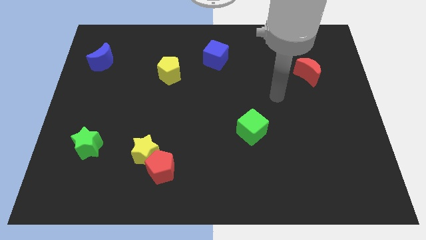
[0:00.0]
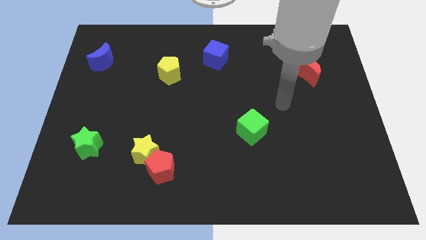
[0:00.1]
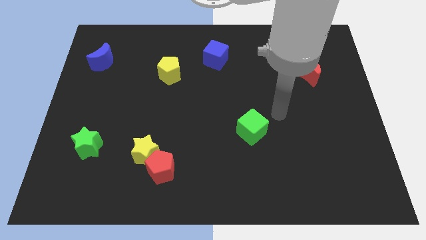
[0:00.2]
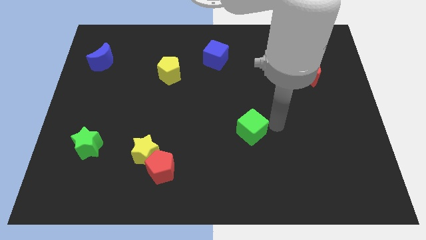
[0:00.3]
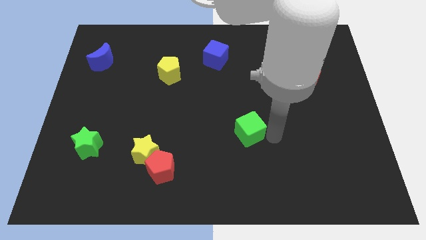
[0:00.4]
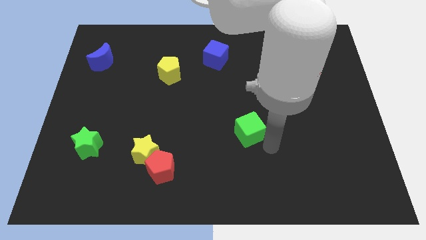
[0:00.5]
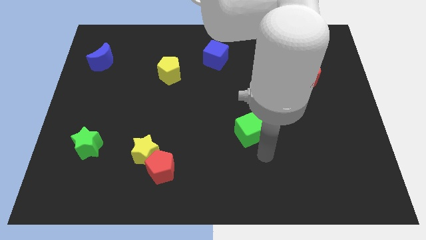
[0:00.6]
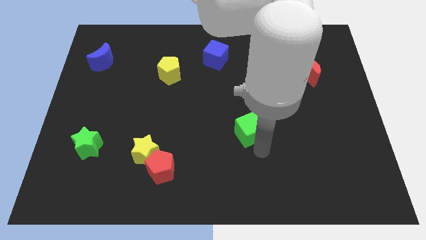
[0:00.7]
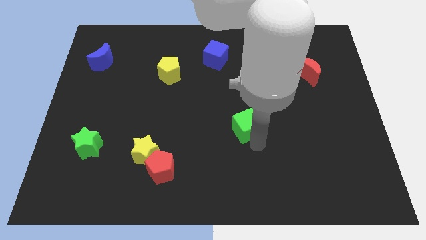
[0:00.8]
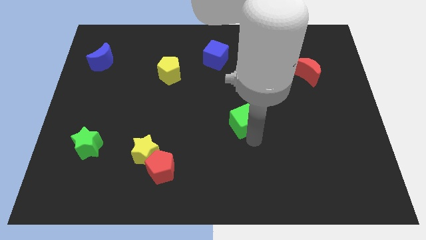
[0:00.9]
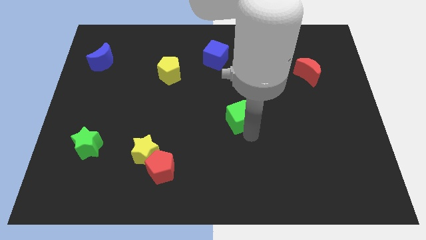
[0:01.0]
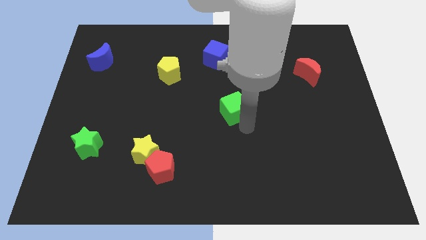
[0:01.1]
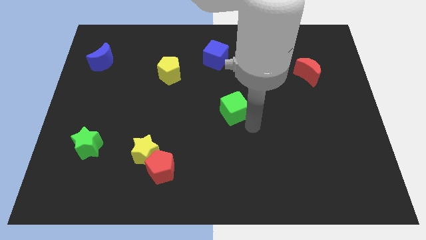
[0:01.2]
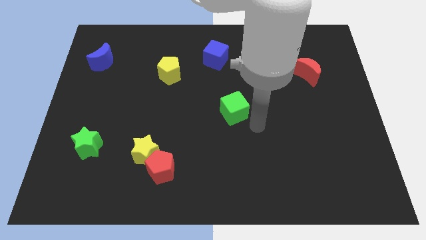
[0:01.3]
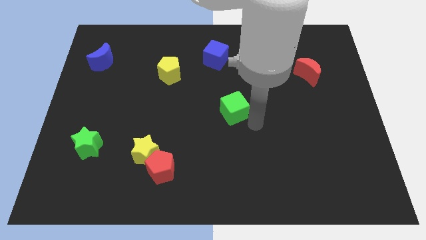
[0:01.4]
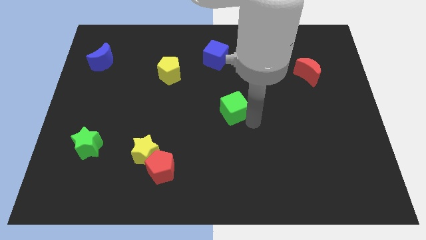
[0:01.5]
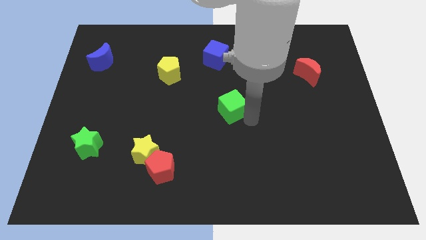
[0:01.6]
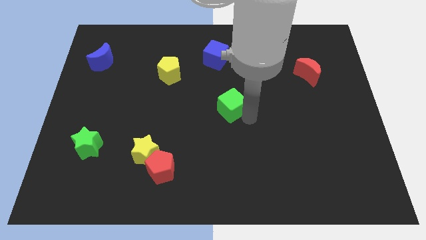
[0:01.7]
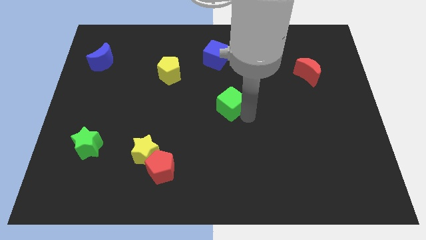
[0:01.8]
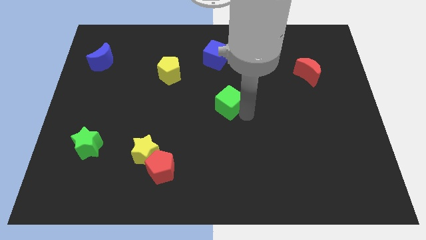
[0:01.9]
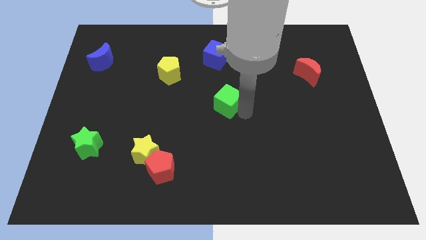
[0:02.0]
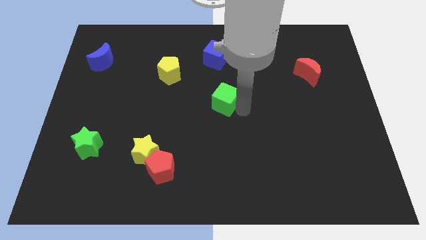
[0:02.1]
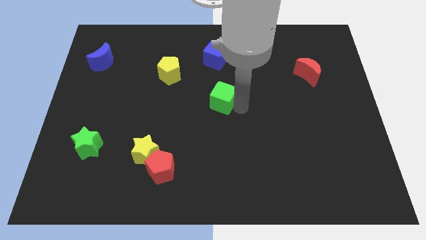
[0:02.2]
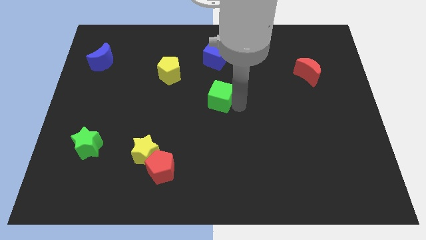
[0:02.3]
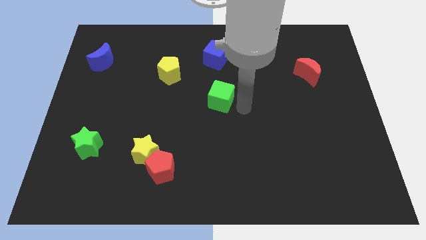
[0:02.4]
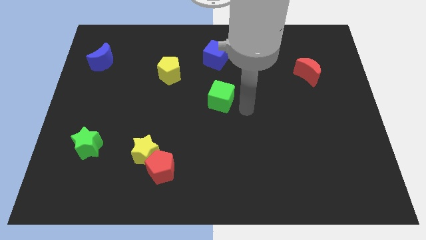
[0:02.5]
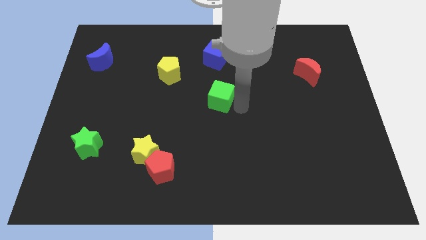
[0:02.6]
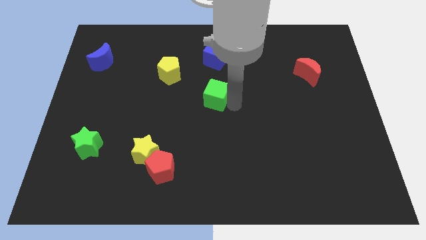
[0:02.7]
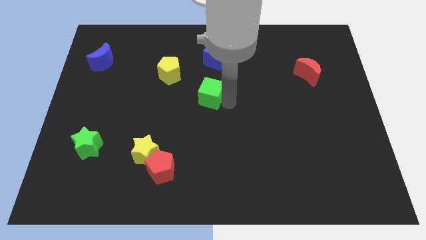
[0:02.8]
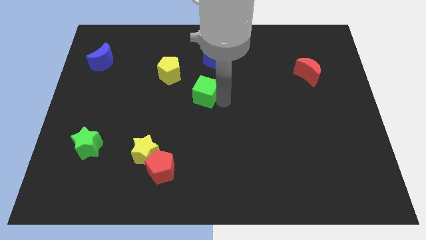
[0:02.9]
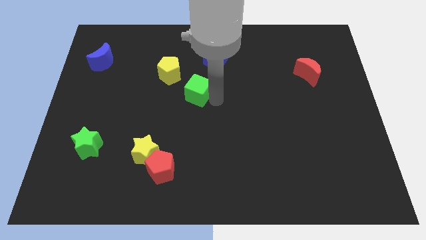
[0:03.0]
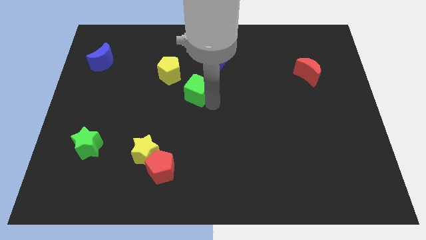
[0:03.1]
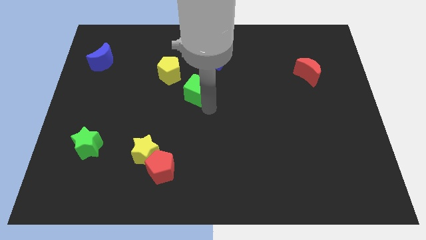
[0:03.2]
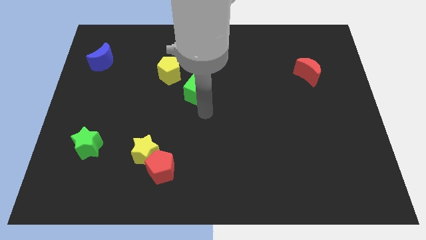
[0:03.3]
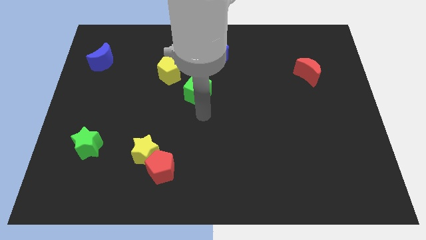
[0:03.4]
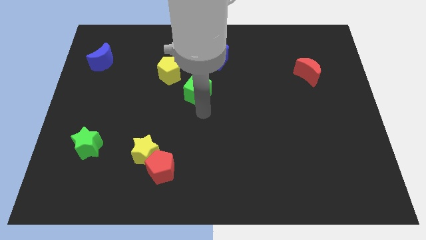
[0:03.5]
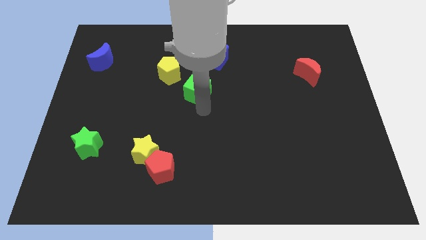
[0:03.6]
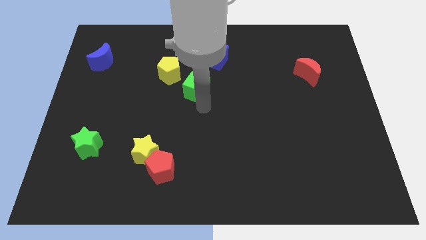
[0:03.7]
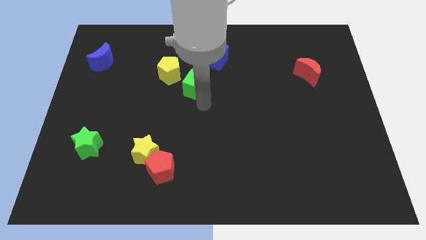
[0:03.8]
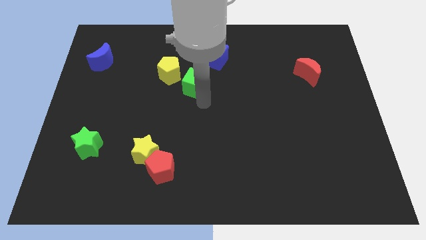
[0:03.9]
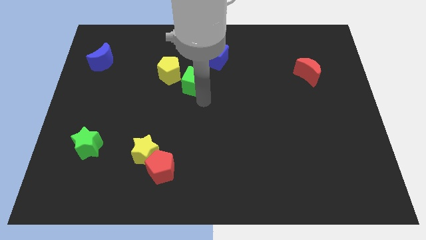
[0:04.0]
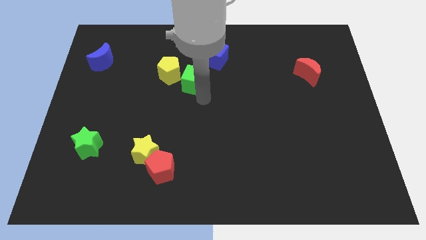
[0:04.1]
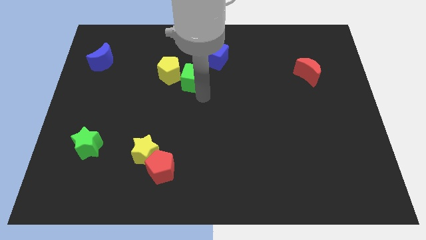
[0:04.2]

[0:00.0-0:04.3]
push the green cube up and to the left diagonally

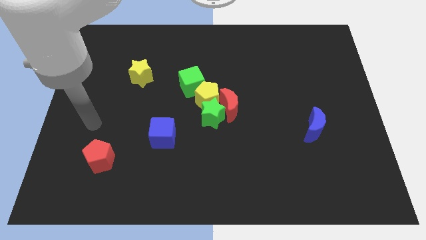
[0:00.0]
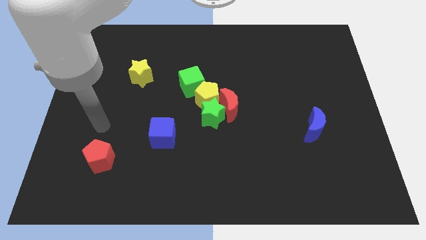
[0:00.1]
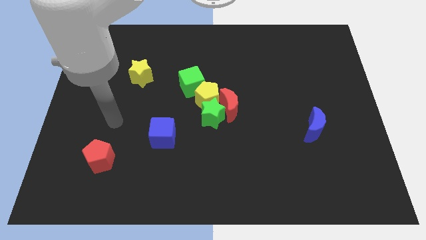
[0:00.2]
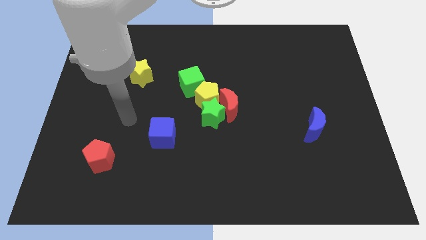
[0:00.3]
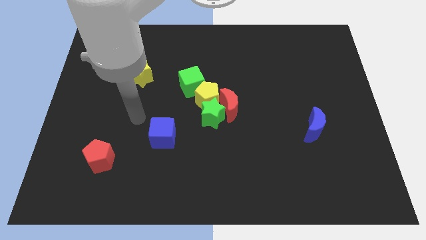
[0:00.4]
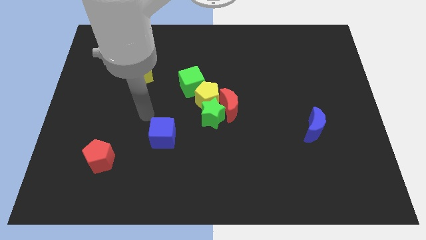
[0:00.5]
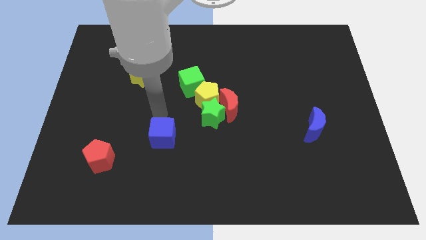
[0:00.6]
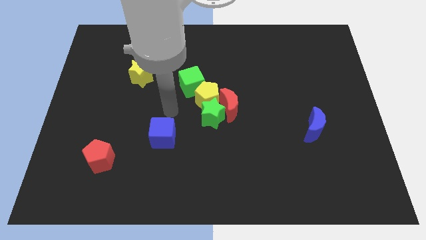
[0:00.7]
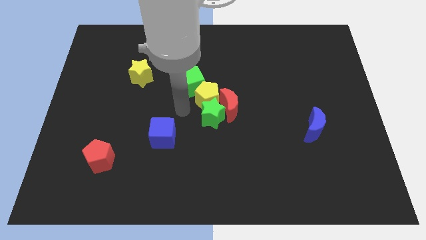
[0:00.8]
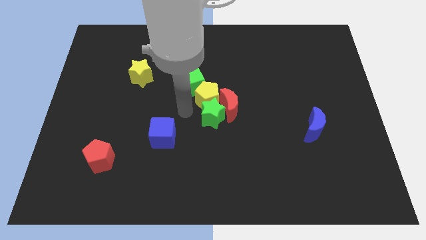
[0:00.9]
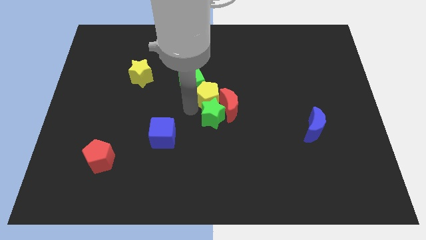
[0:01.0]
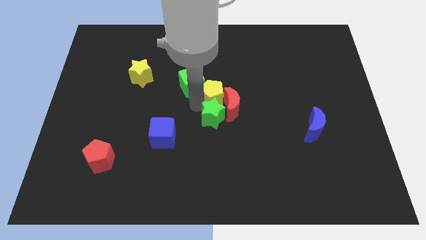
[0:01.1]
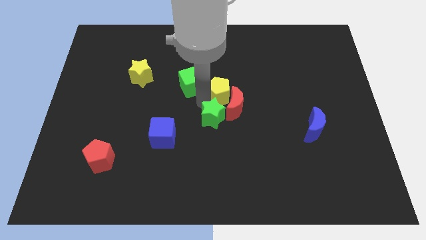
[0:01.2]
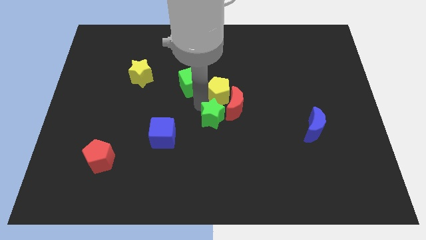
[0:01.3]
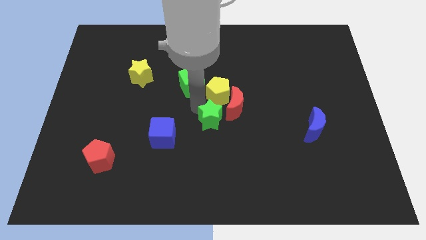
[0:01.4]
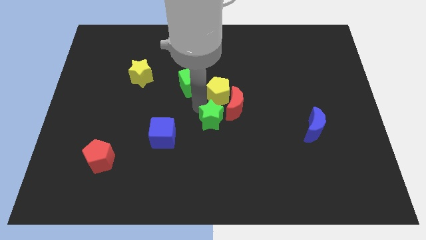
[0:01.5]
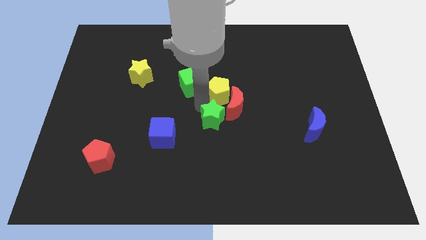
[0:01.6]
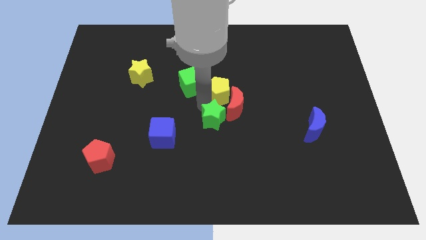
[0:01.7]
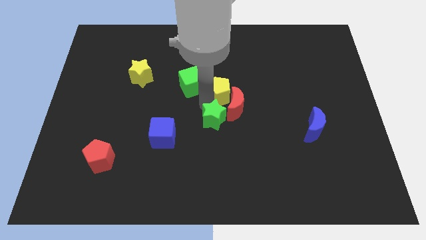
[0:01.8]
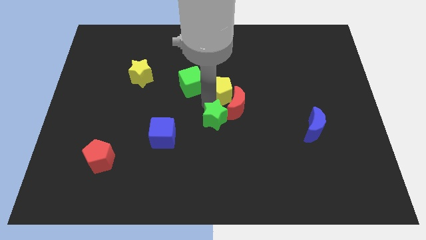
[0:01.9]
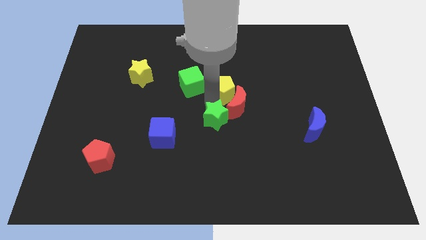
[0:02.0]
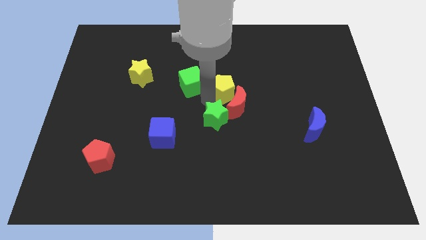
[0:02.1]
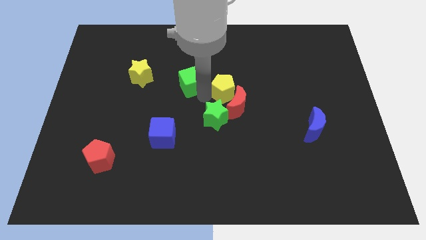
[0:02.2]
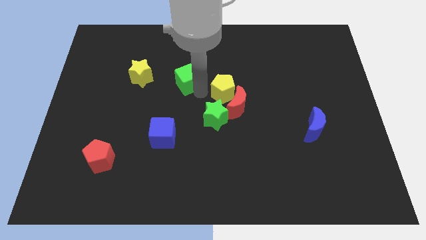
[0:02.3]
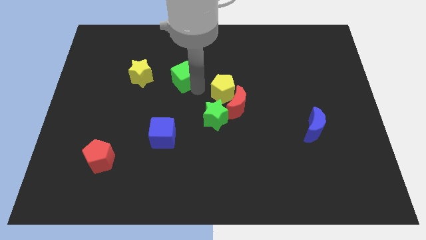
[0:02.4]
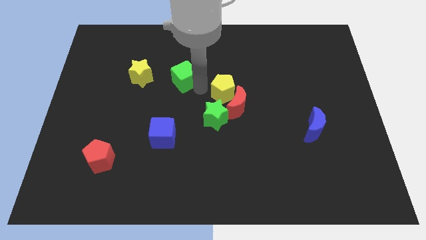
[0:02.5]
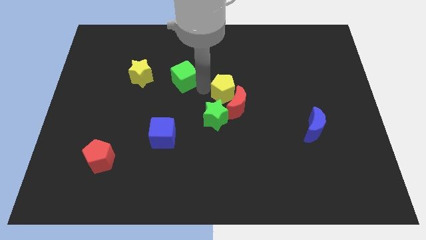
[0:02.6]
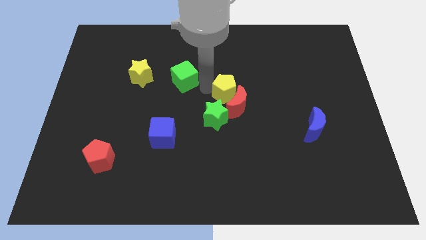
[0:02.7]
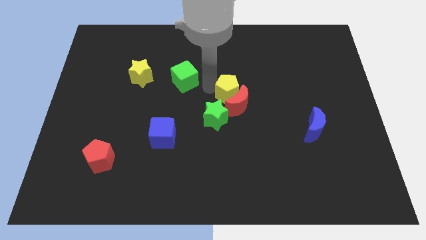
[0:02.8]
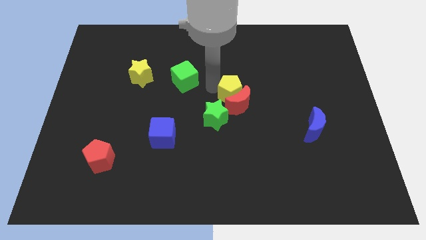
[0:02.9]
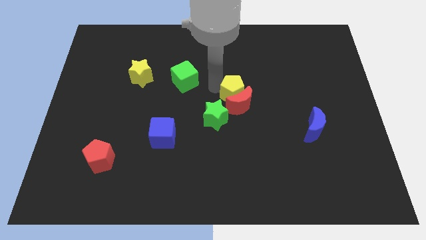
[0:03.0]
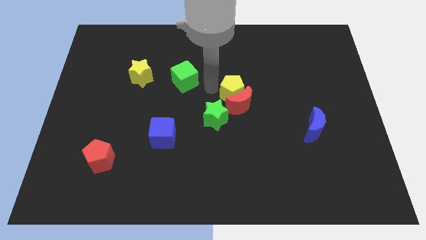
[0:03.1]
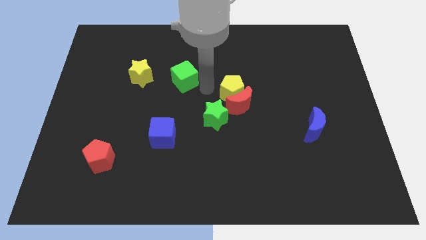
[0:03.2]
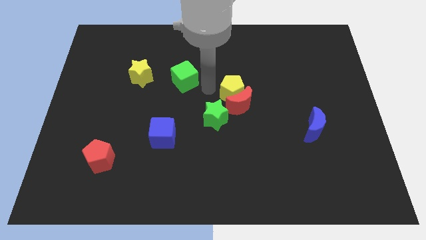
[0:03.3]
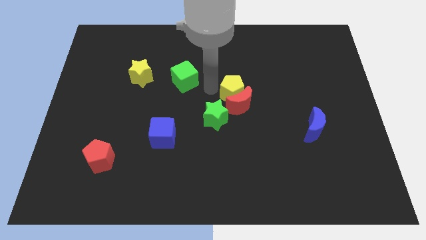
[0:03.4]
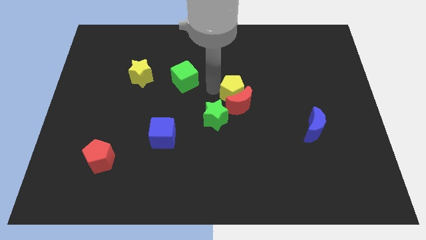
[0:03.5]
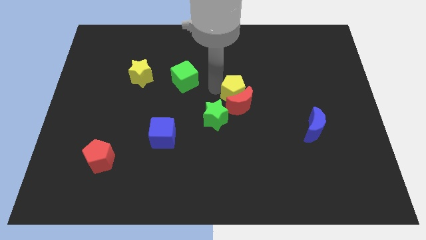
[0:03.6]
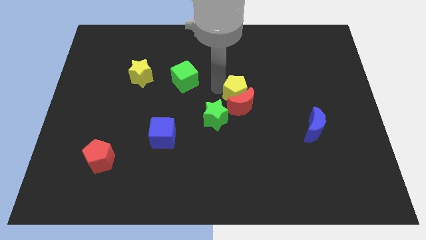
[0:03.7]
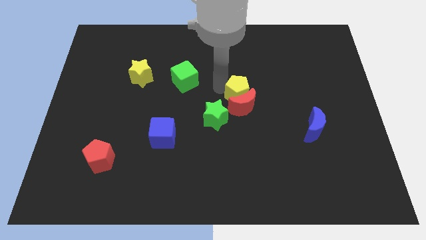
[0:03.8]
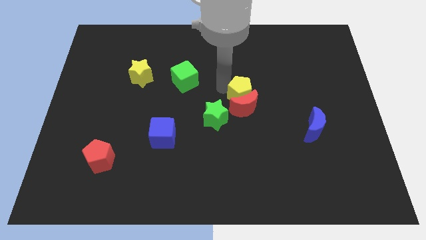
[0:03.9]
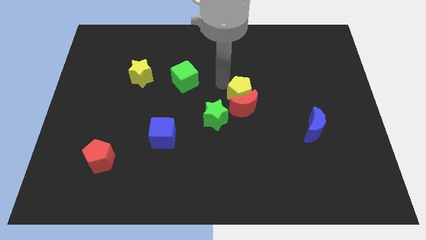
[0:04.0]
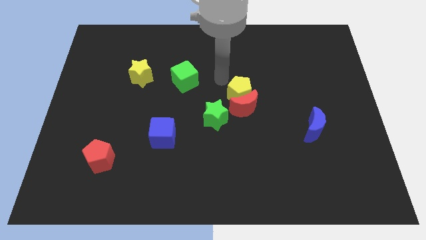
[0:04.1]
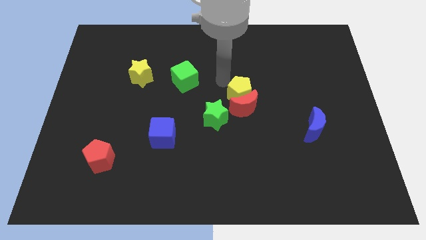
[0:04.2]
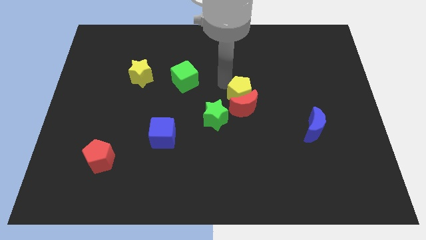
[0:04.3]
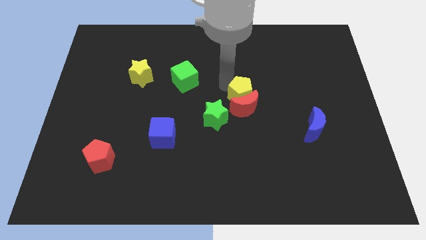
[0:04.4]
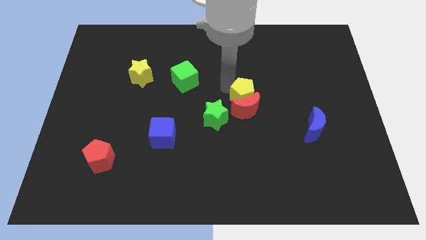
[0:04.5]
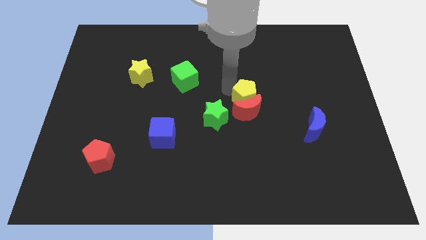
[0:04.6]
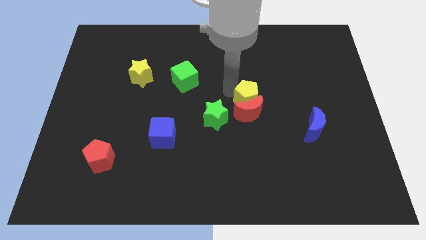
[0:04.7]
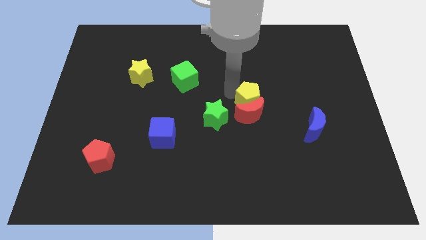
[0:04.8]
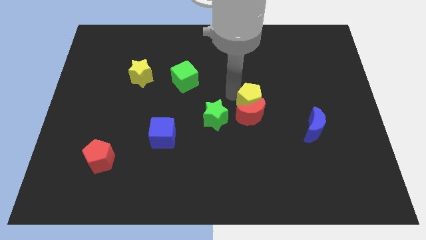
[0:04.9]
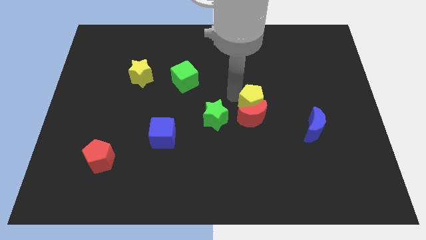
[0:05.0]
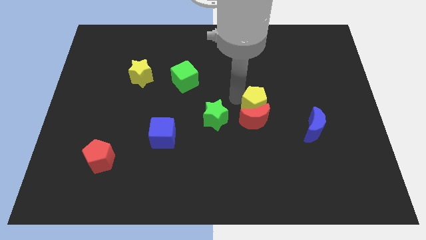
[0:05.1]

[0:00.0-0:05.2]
move the yellow pentagon down and right diagonally a little
